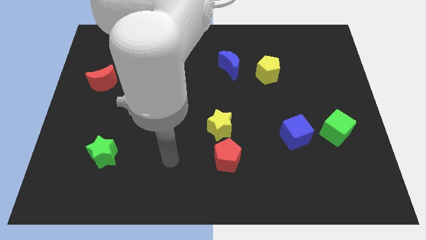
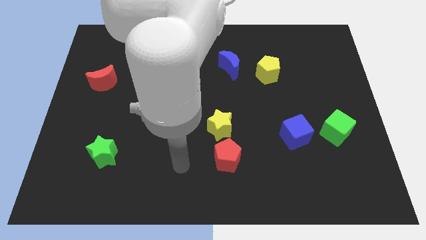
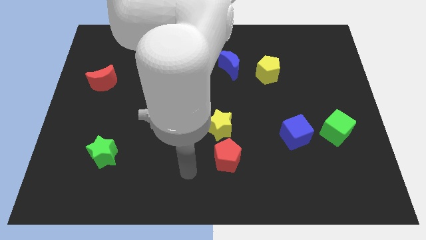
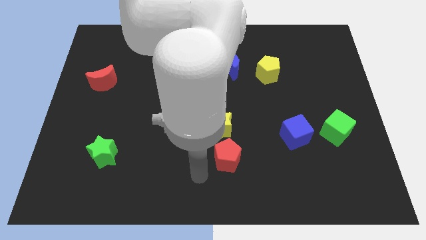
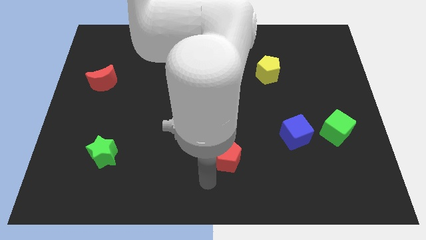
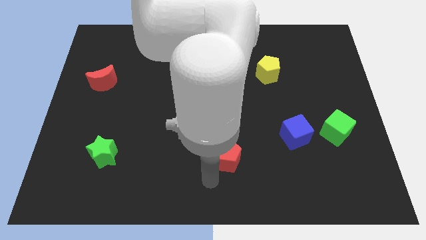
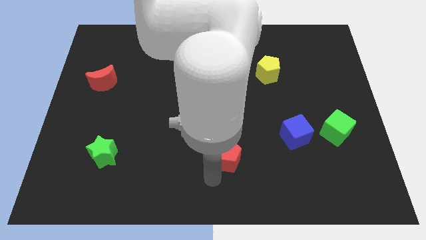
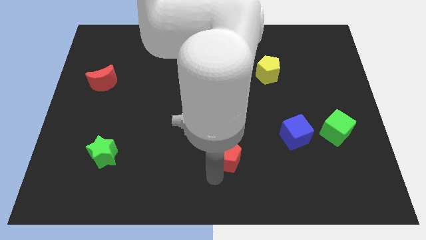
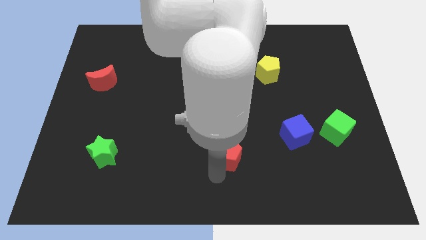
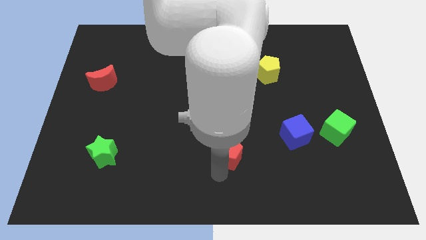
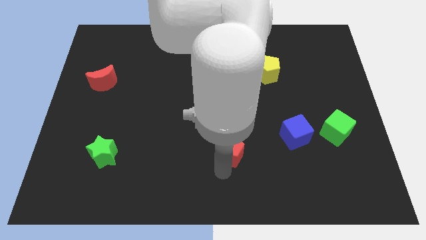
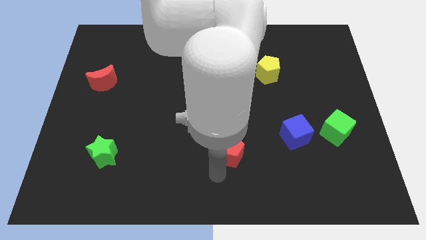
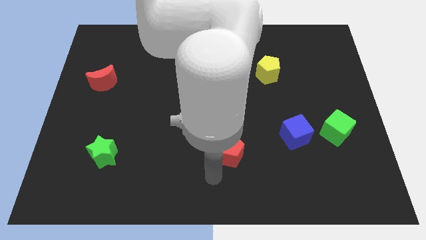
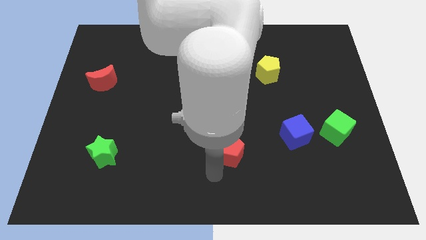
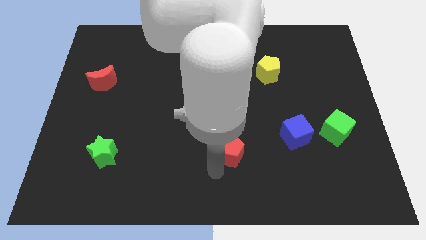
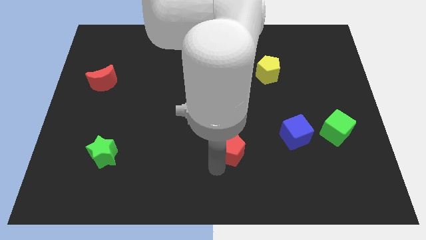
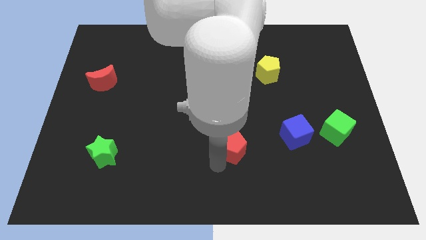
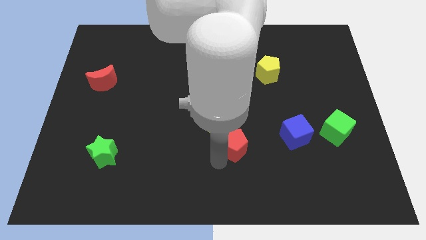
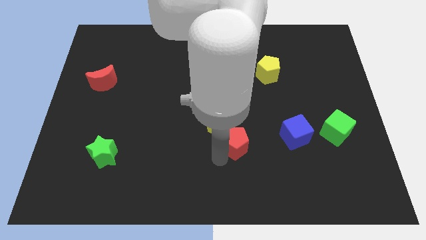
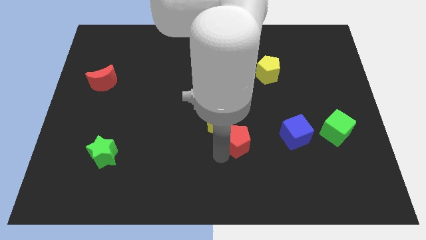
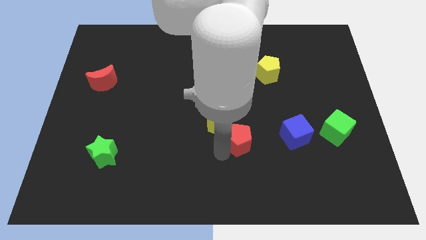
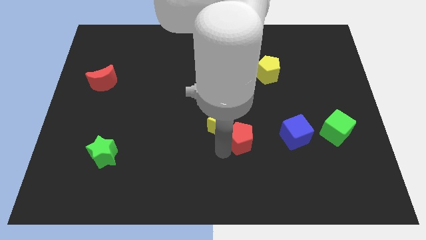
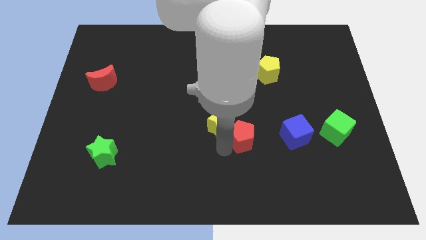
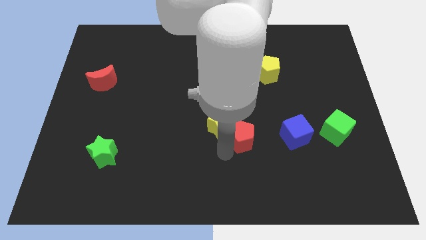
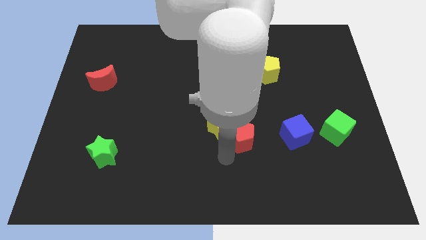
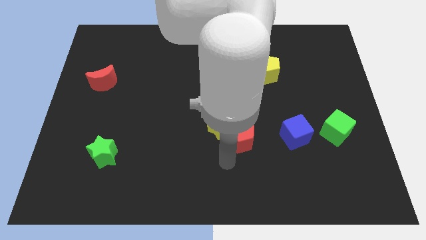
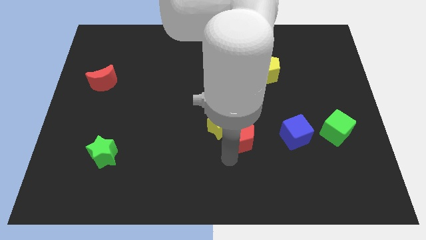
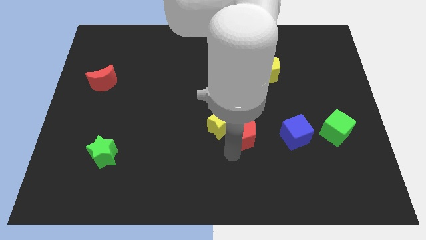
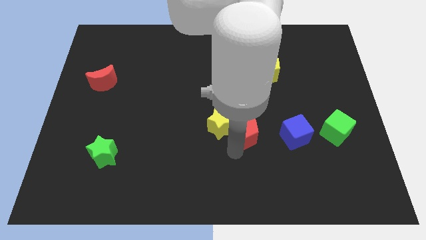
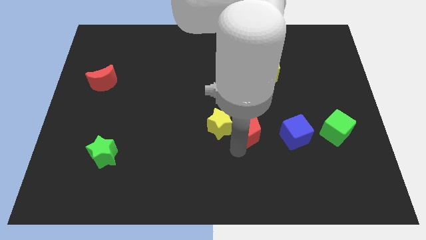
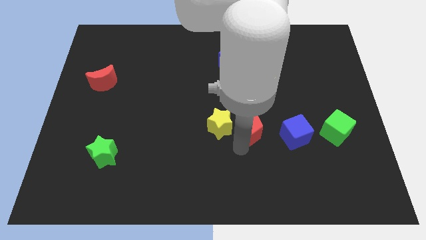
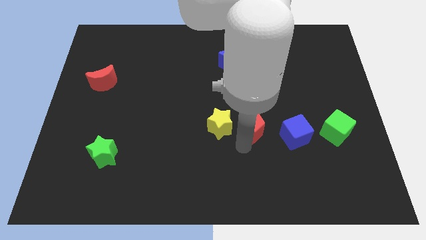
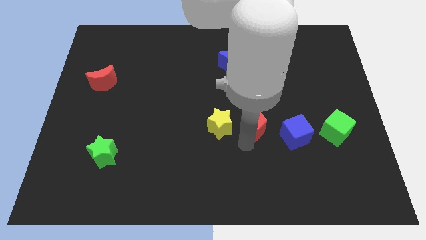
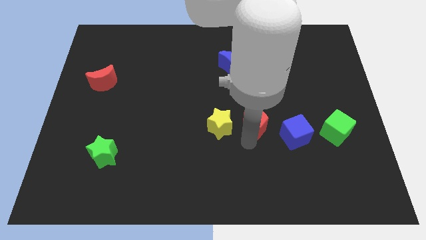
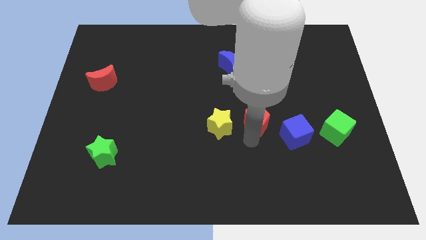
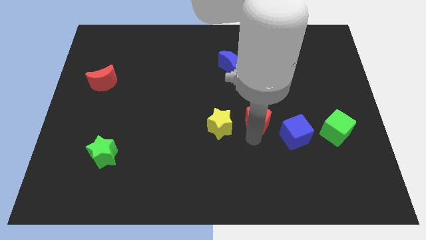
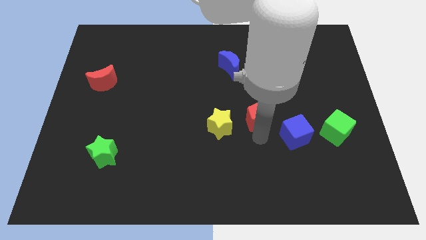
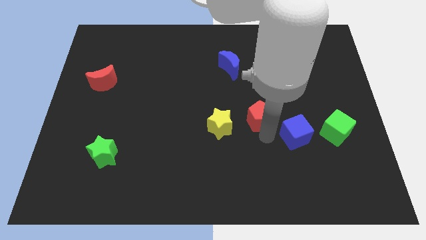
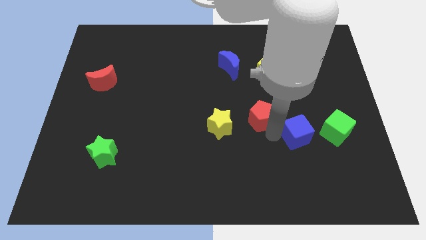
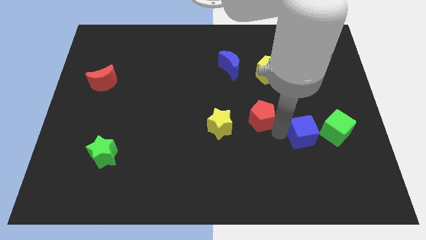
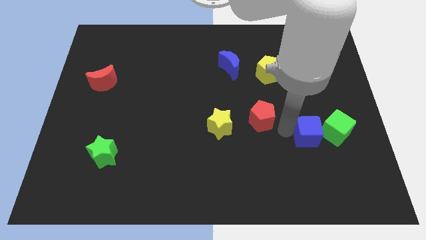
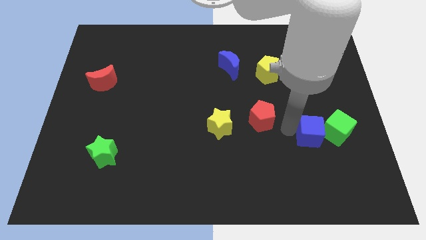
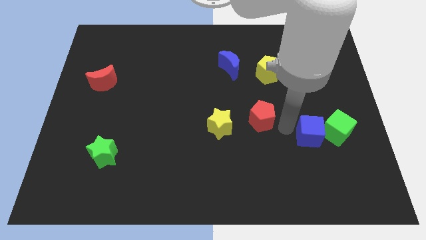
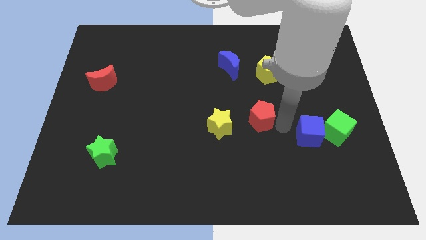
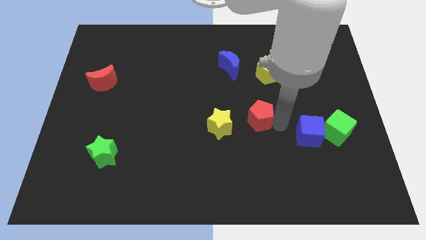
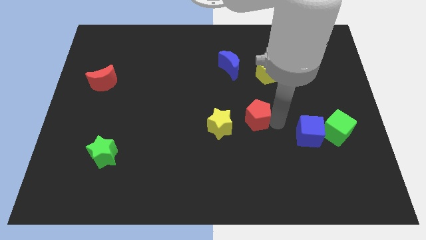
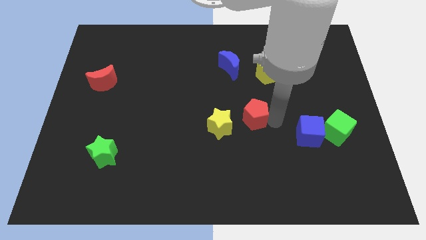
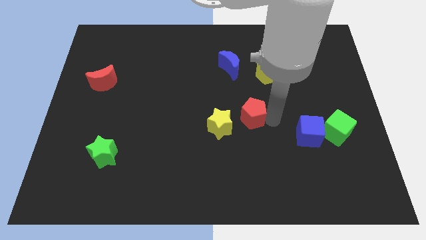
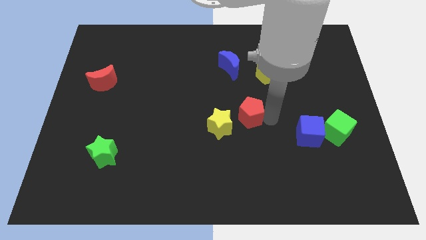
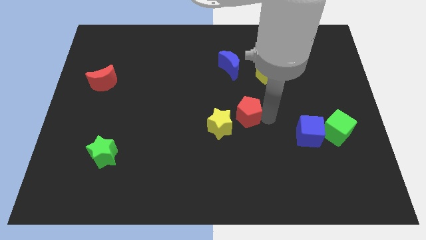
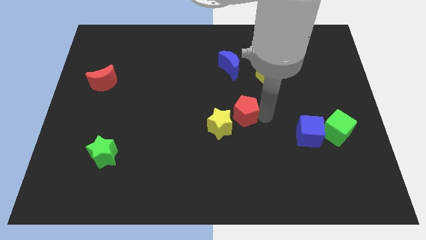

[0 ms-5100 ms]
push the red pentagon below the blue moon

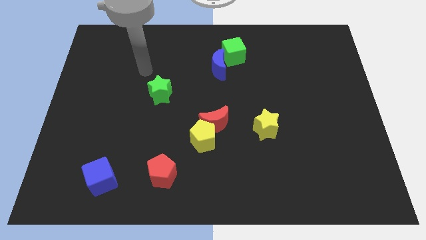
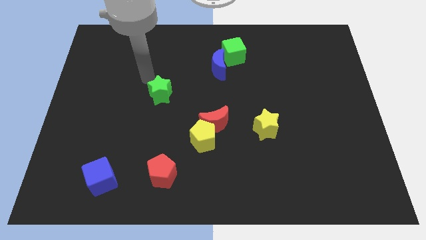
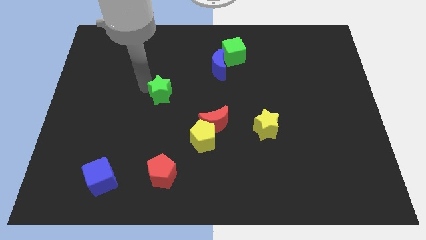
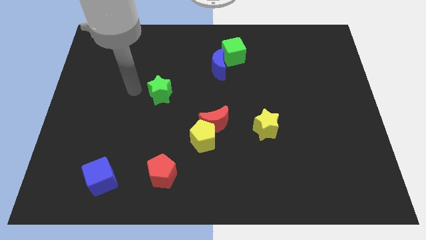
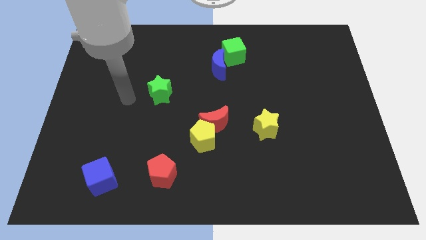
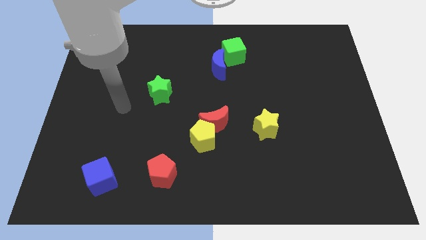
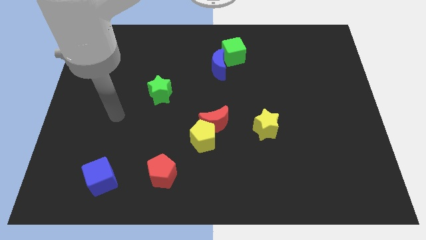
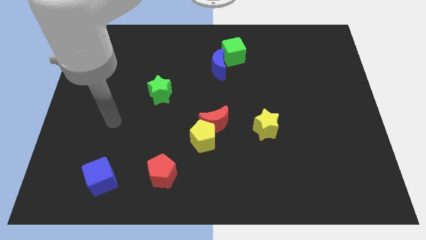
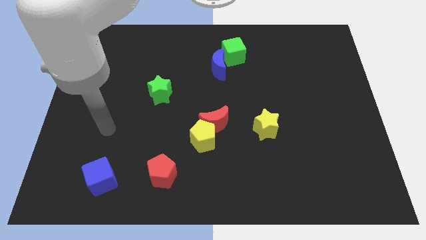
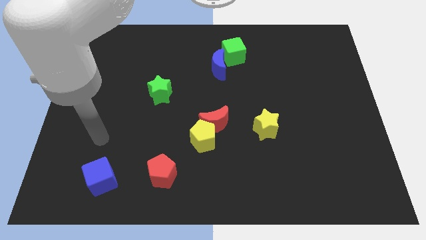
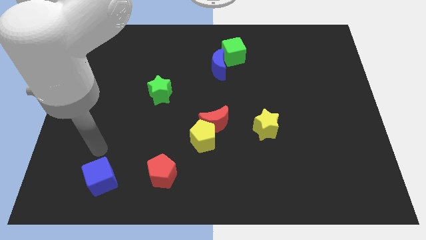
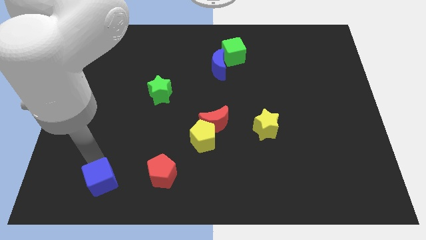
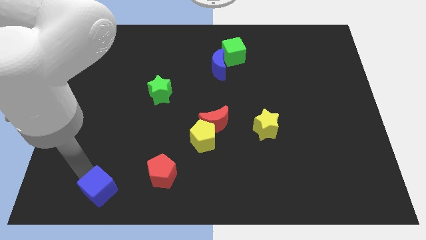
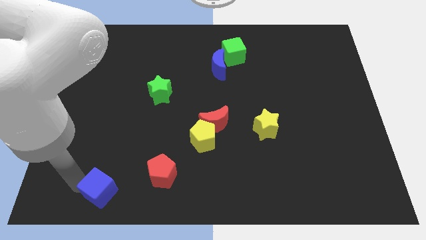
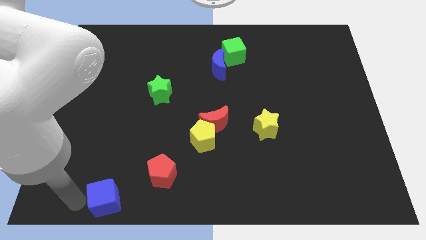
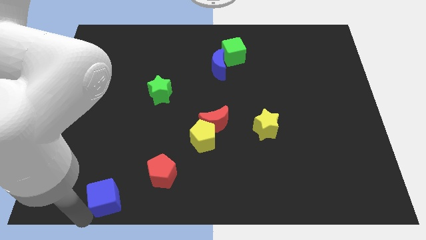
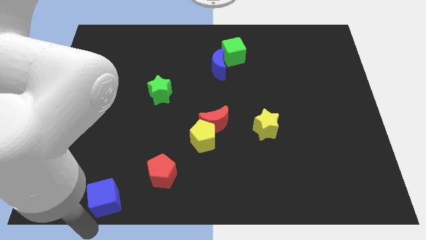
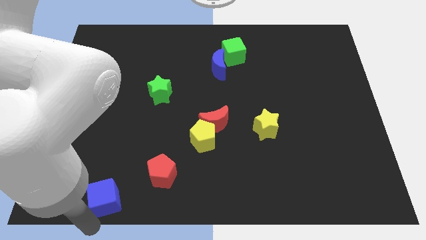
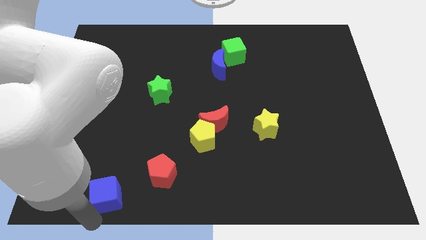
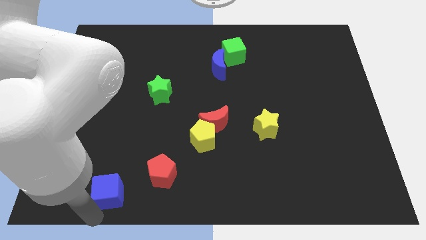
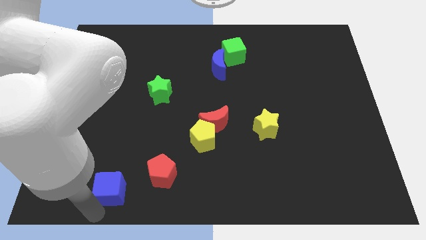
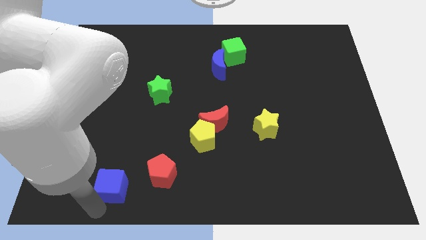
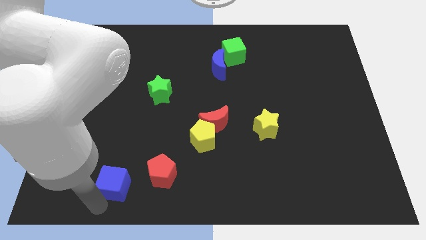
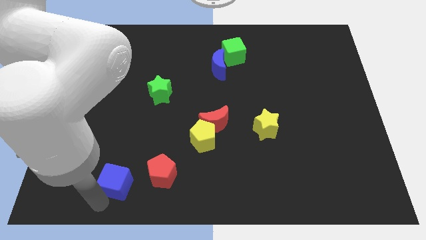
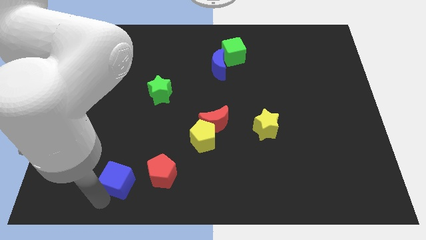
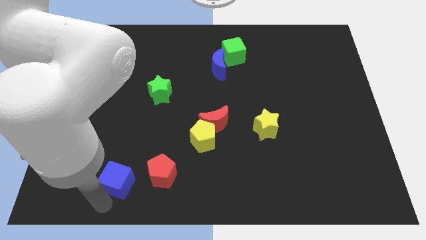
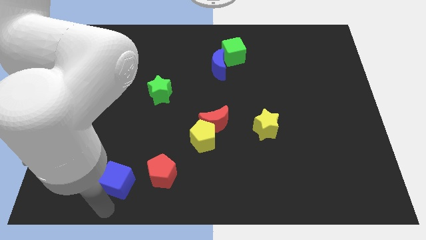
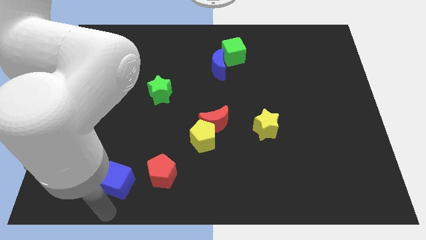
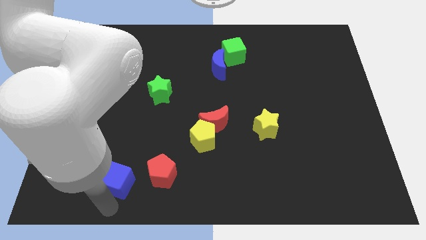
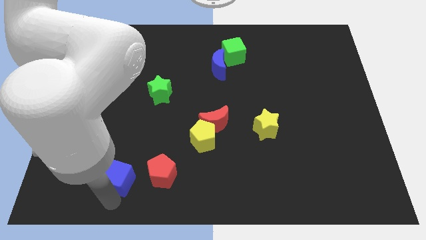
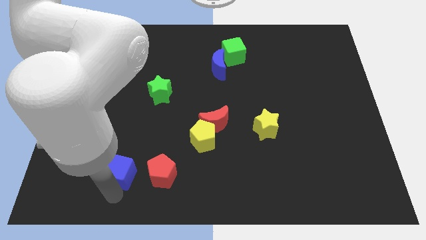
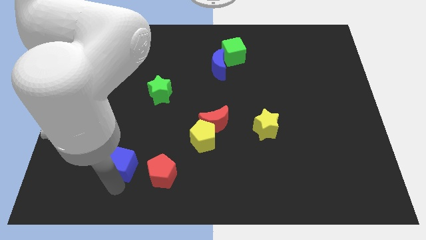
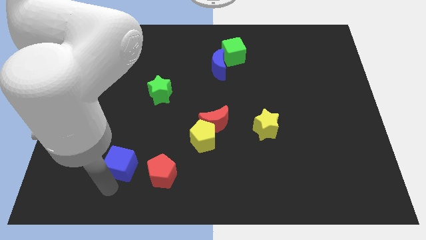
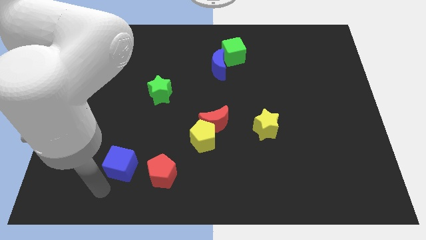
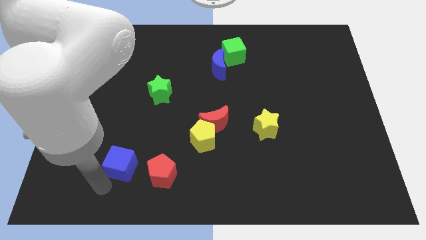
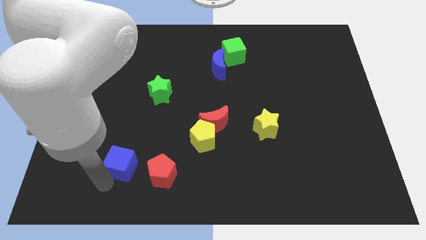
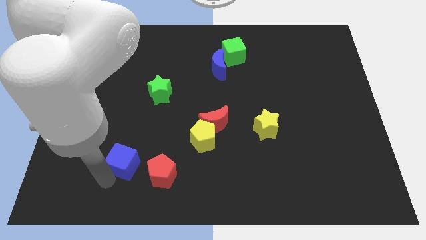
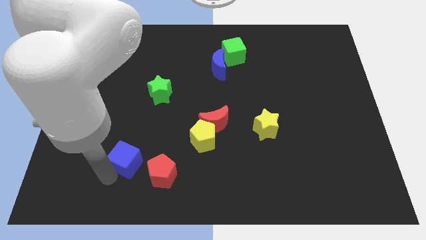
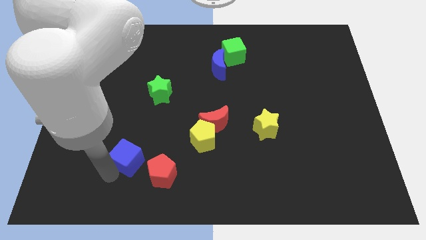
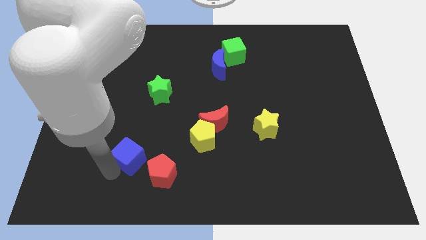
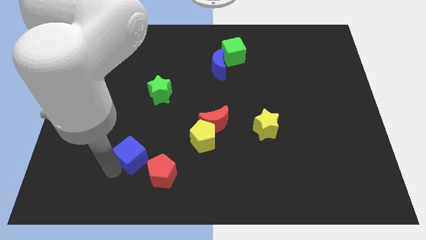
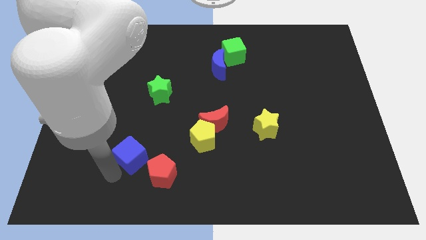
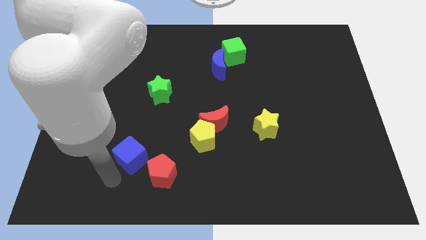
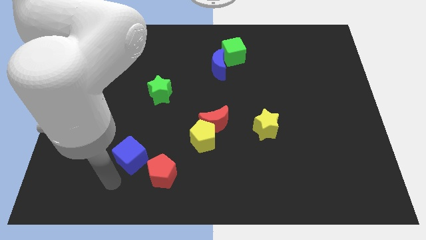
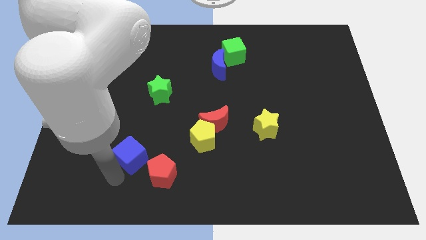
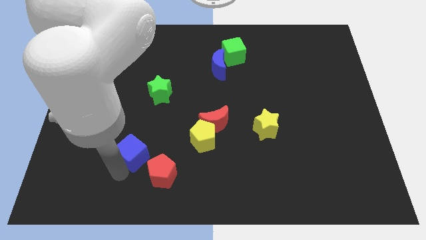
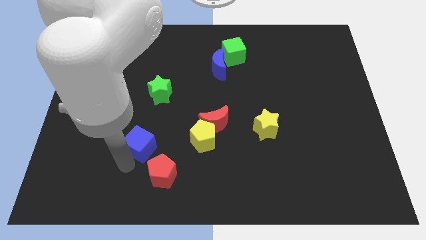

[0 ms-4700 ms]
push the blue cube below the green star
